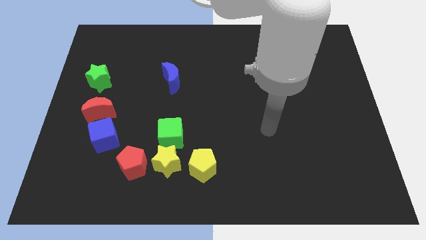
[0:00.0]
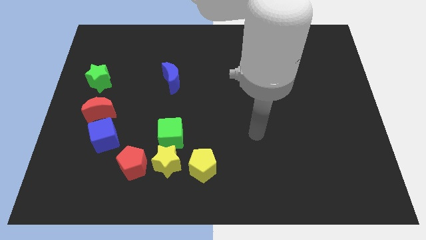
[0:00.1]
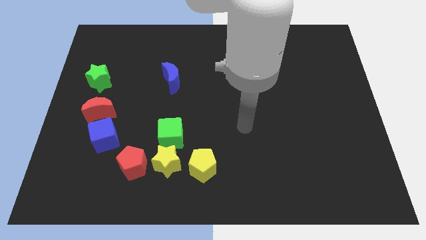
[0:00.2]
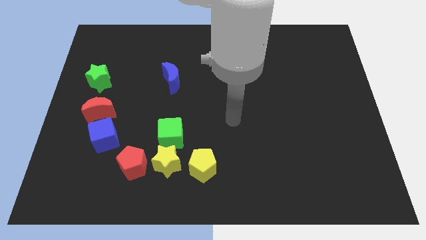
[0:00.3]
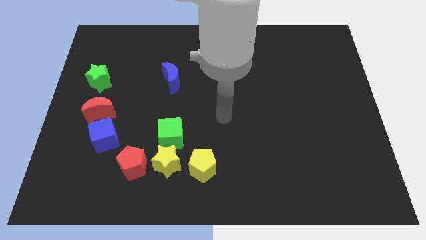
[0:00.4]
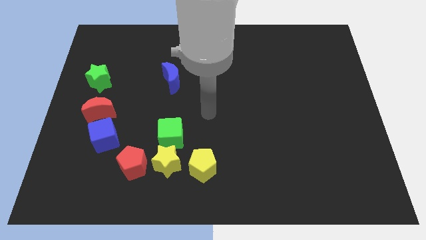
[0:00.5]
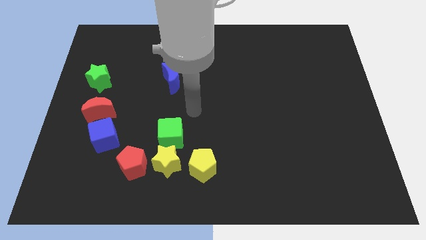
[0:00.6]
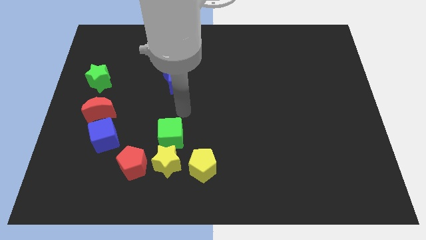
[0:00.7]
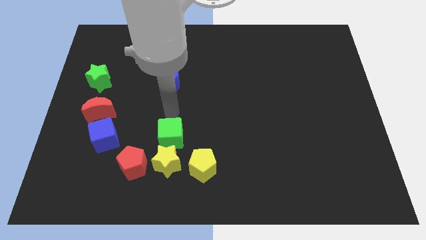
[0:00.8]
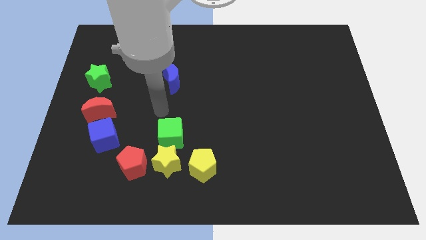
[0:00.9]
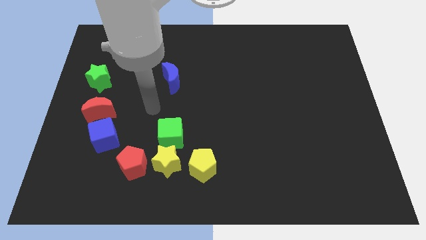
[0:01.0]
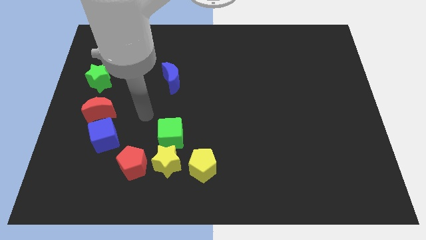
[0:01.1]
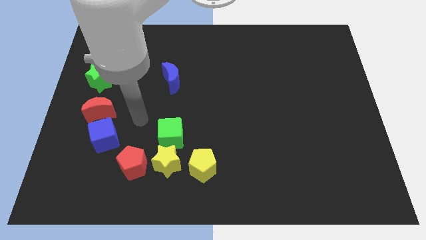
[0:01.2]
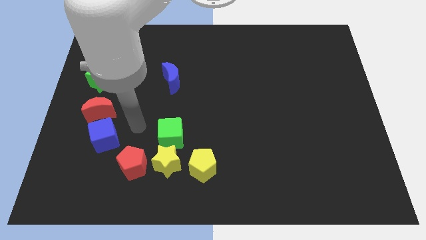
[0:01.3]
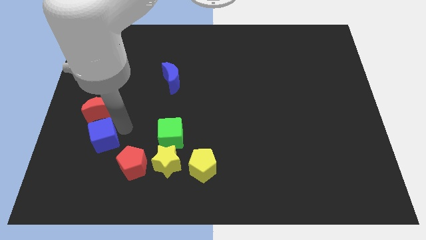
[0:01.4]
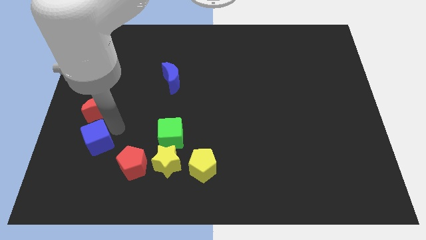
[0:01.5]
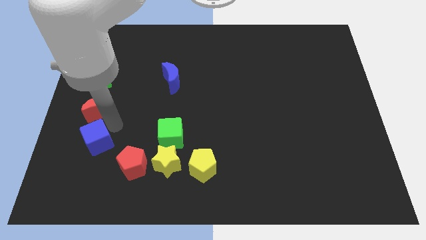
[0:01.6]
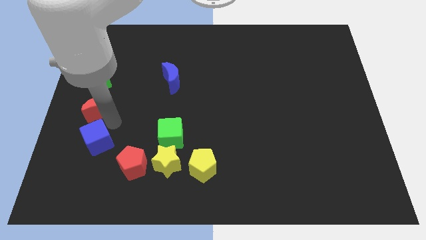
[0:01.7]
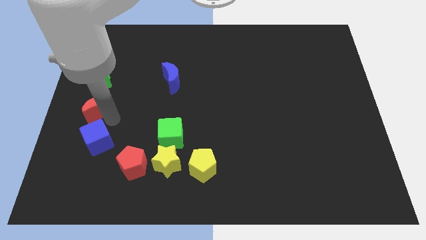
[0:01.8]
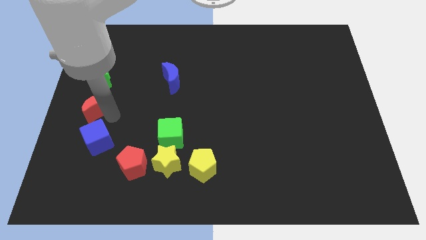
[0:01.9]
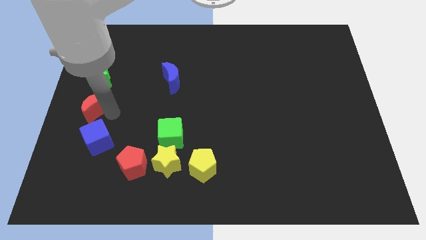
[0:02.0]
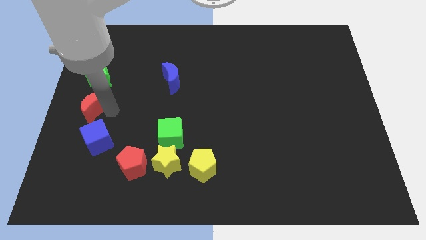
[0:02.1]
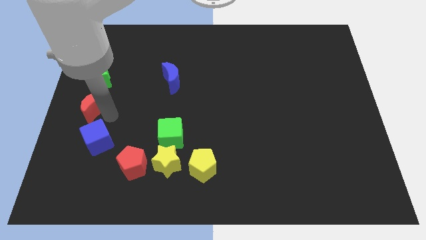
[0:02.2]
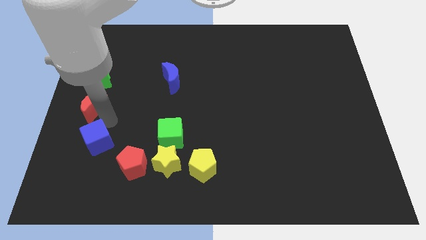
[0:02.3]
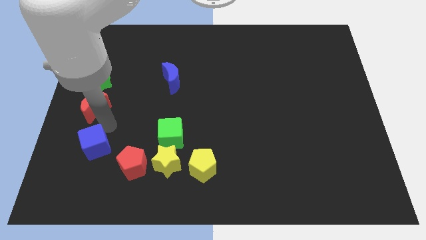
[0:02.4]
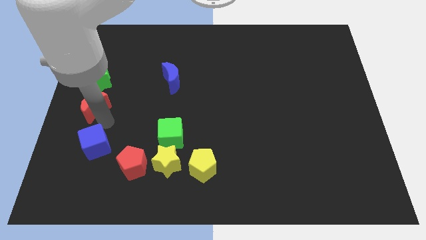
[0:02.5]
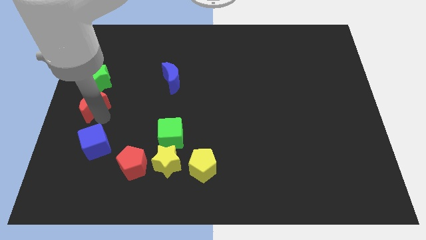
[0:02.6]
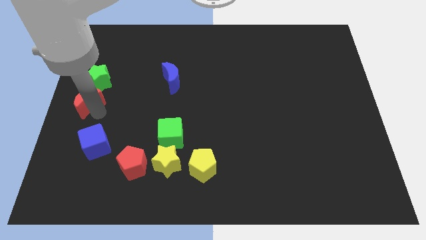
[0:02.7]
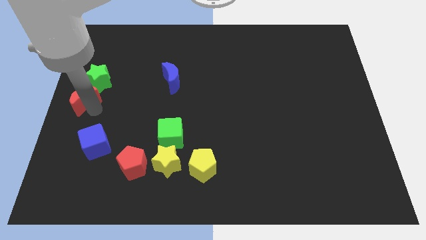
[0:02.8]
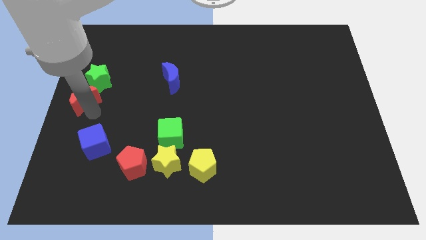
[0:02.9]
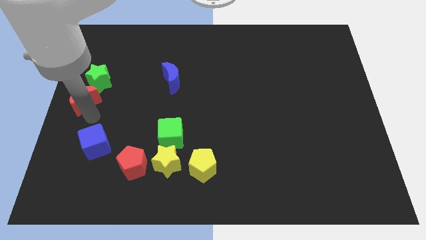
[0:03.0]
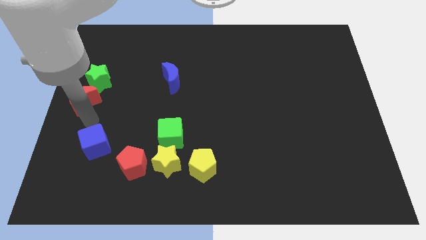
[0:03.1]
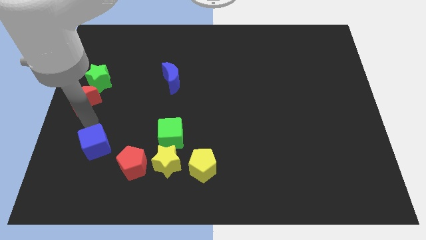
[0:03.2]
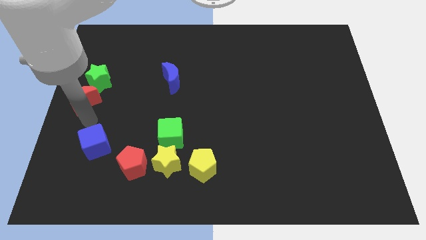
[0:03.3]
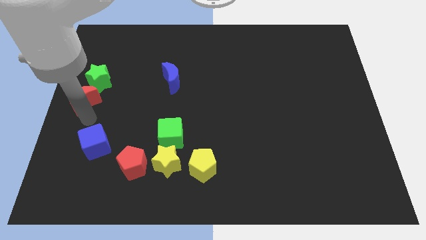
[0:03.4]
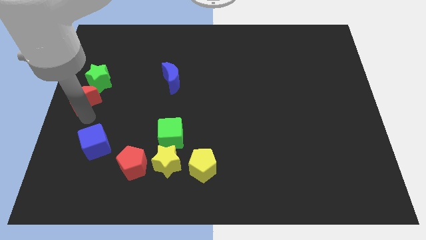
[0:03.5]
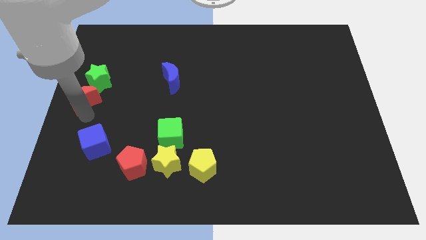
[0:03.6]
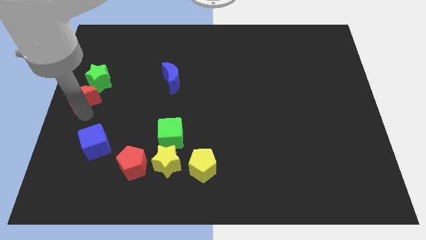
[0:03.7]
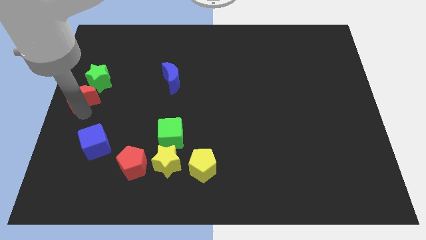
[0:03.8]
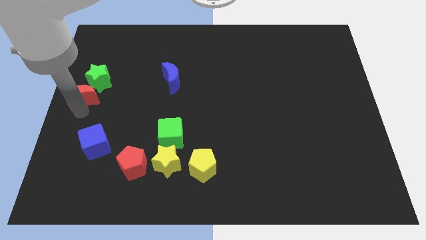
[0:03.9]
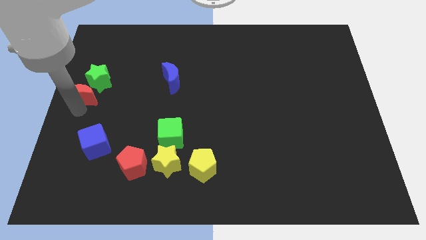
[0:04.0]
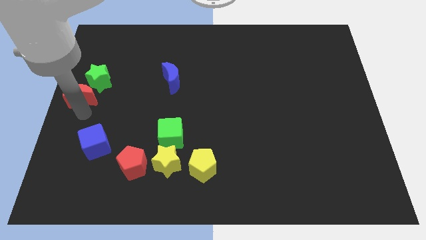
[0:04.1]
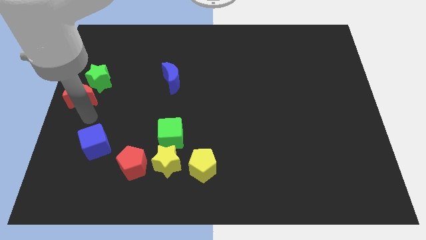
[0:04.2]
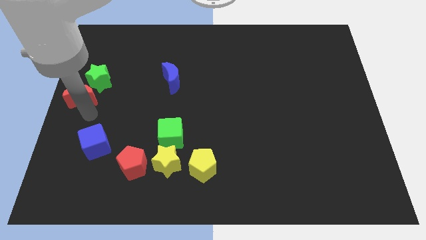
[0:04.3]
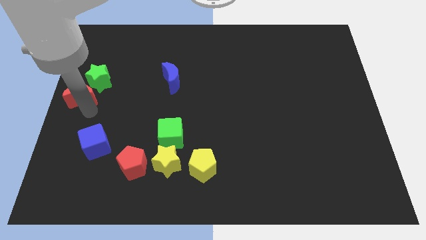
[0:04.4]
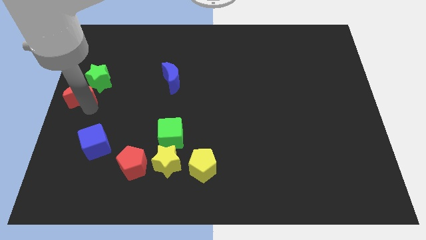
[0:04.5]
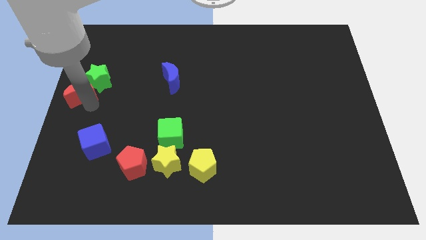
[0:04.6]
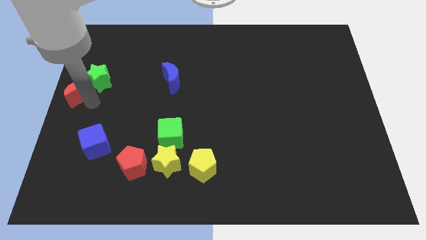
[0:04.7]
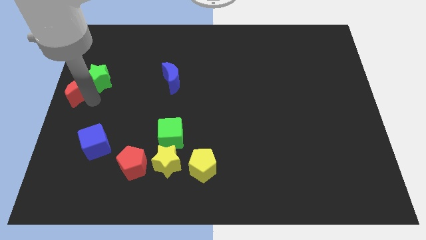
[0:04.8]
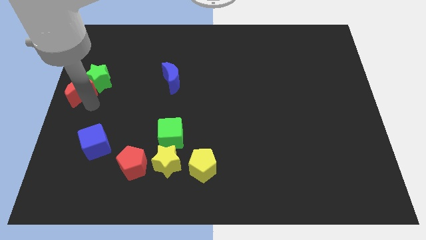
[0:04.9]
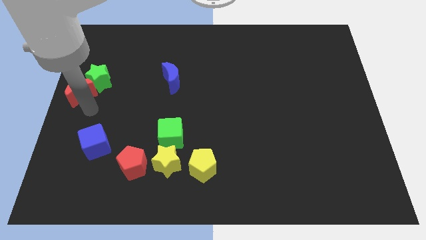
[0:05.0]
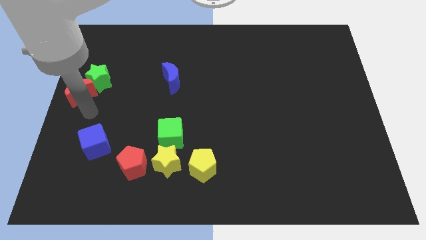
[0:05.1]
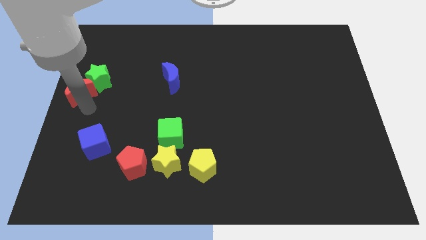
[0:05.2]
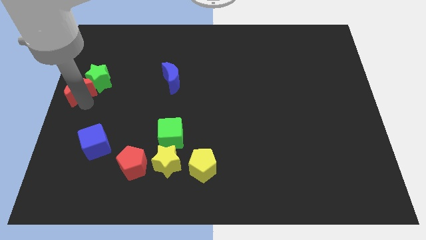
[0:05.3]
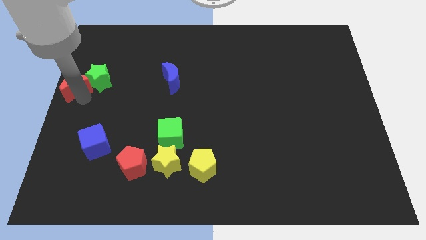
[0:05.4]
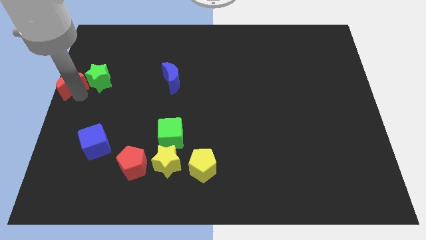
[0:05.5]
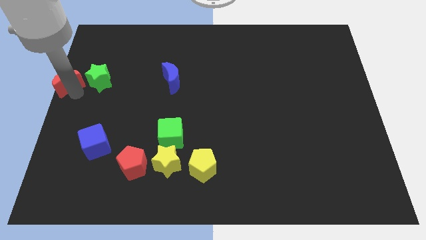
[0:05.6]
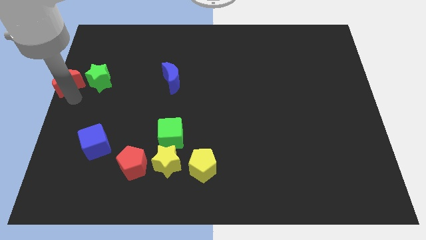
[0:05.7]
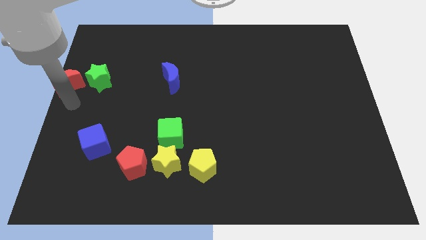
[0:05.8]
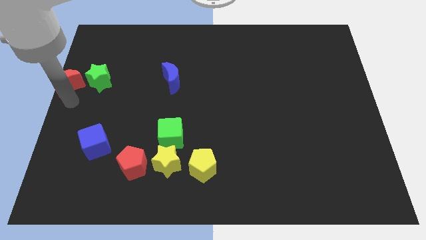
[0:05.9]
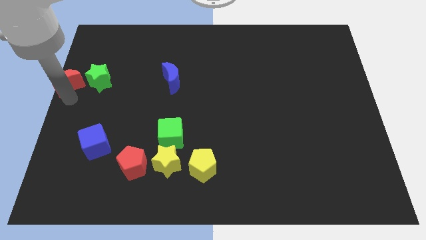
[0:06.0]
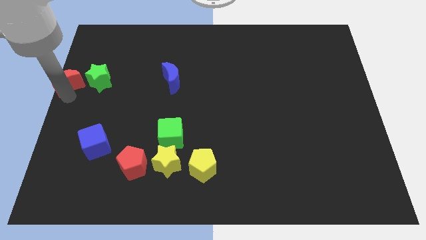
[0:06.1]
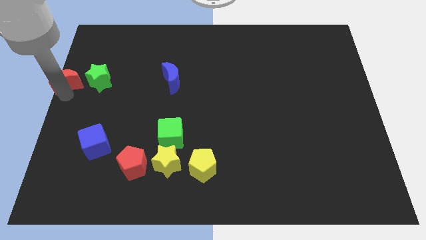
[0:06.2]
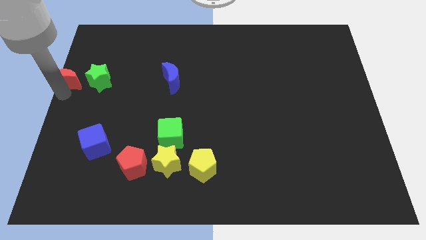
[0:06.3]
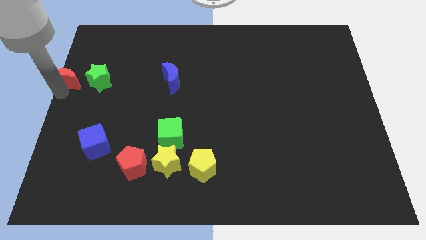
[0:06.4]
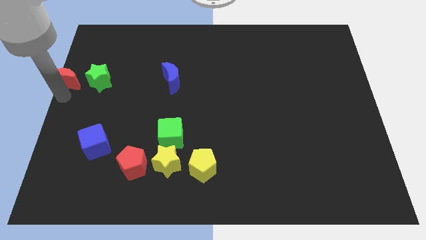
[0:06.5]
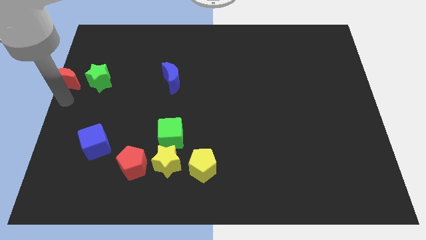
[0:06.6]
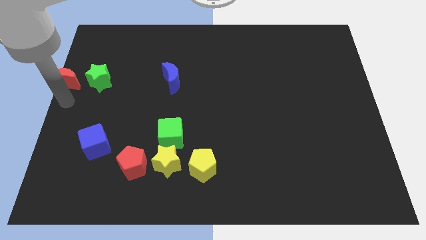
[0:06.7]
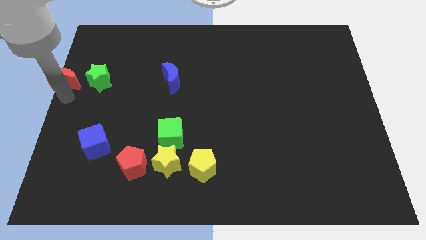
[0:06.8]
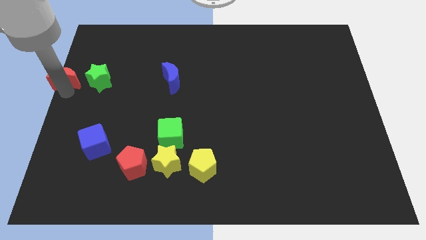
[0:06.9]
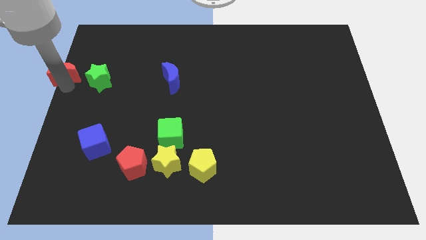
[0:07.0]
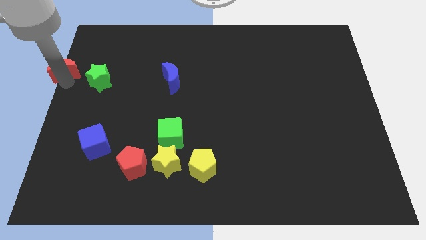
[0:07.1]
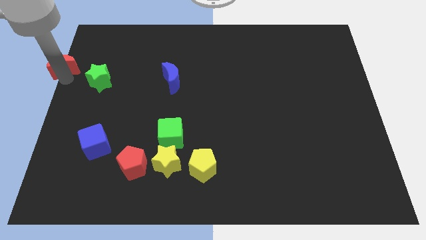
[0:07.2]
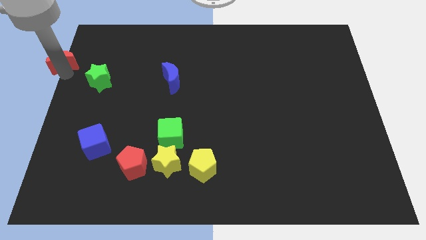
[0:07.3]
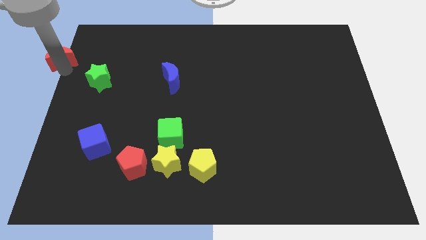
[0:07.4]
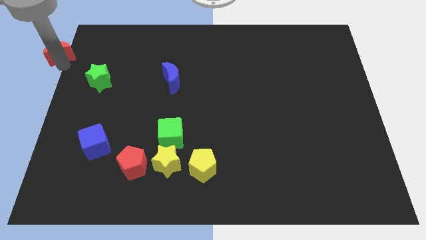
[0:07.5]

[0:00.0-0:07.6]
put the red moon to the top left
